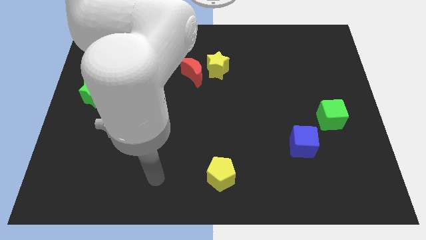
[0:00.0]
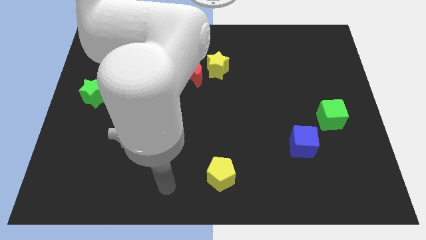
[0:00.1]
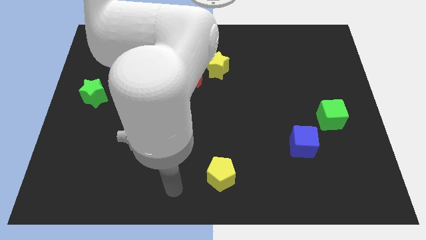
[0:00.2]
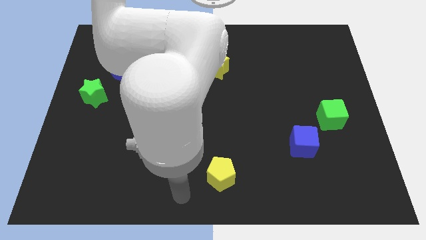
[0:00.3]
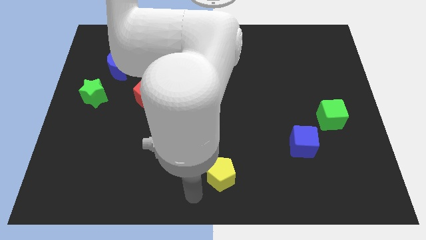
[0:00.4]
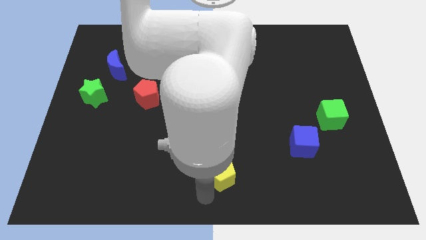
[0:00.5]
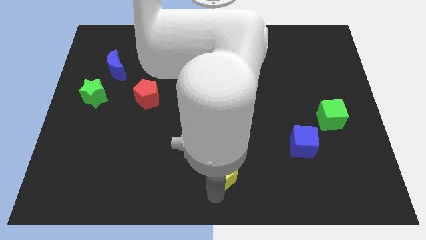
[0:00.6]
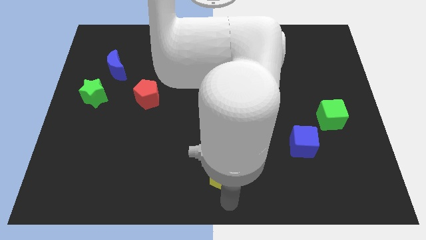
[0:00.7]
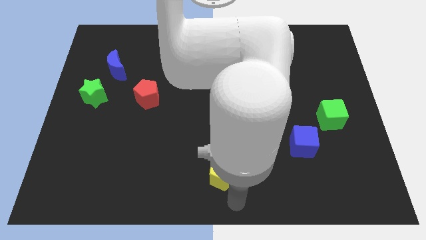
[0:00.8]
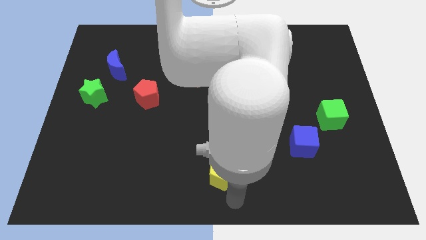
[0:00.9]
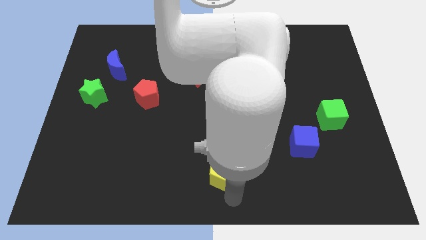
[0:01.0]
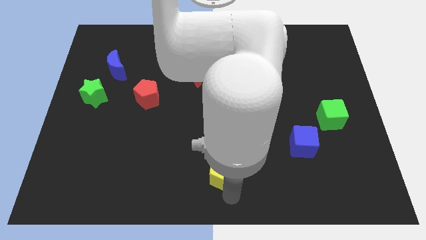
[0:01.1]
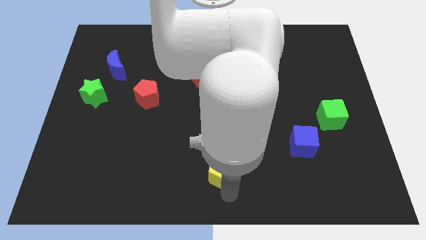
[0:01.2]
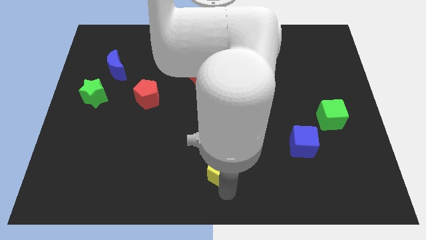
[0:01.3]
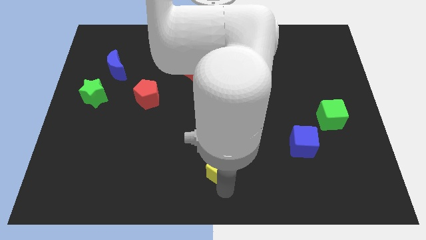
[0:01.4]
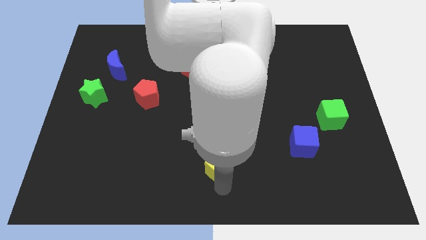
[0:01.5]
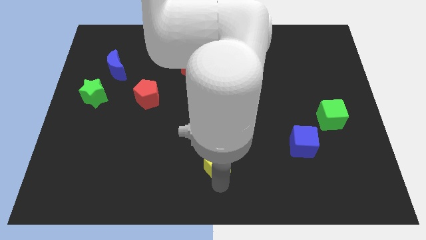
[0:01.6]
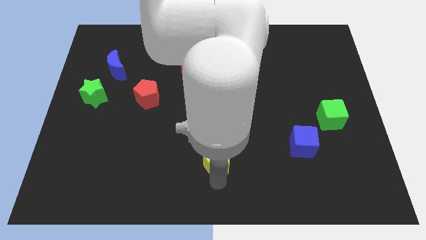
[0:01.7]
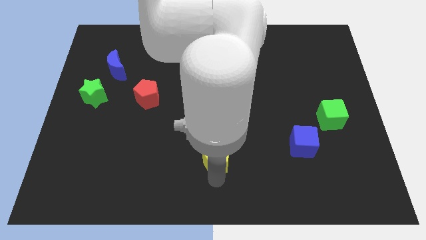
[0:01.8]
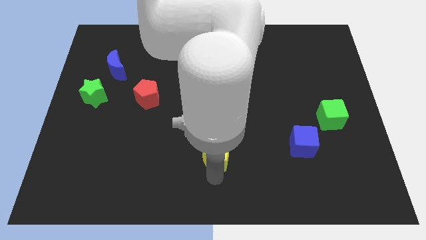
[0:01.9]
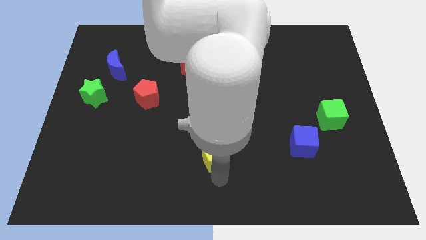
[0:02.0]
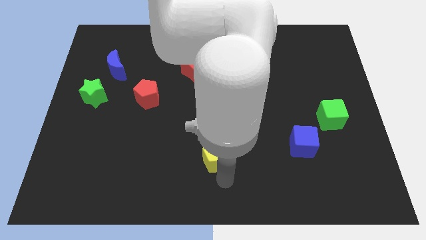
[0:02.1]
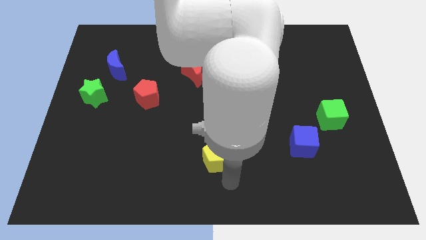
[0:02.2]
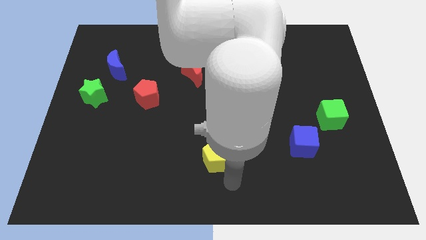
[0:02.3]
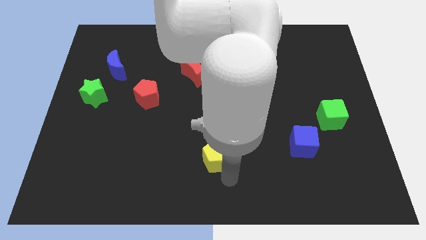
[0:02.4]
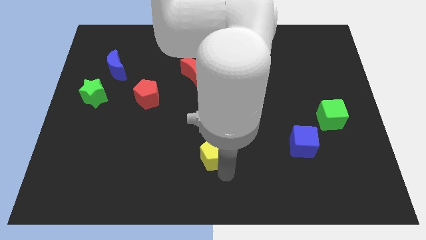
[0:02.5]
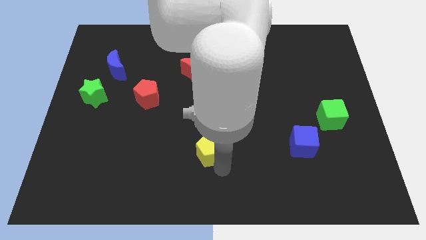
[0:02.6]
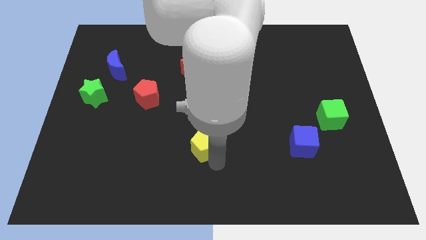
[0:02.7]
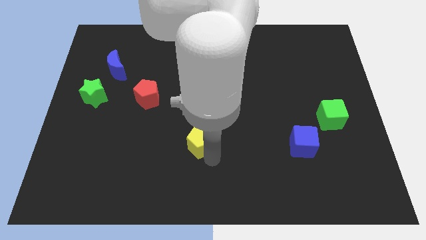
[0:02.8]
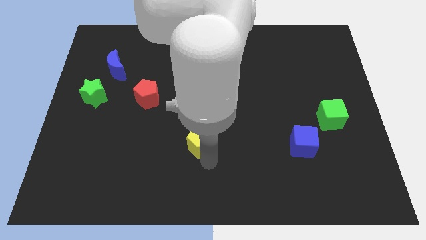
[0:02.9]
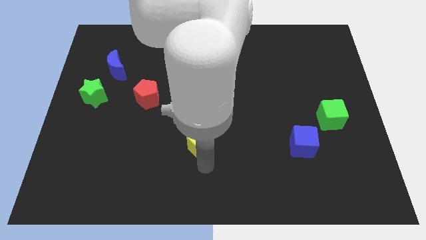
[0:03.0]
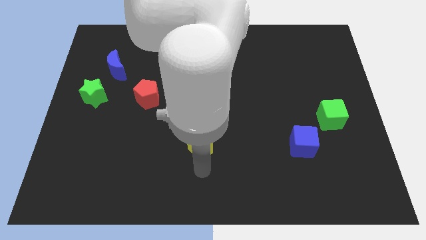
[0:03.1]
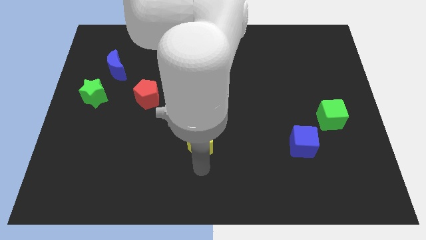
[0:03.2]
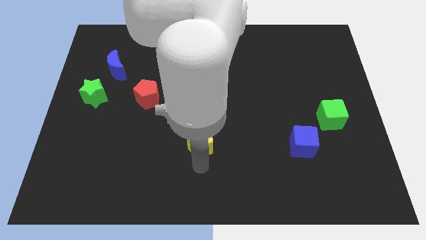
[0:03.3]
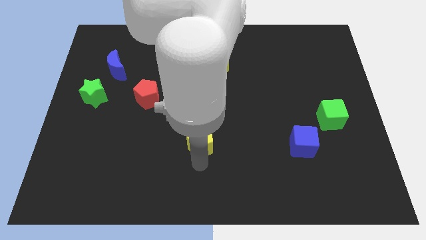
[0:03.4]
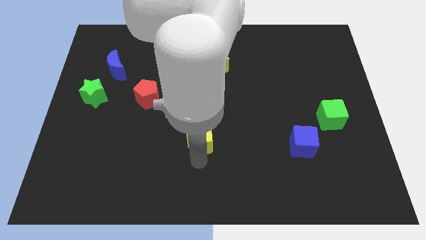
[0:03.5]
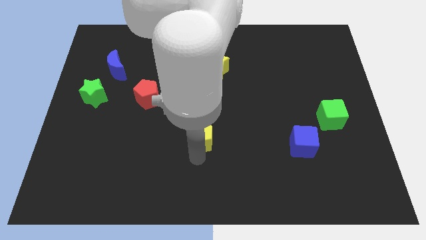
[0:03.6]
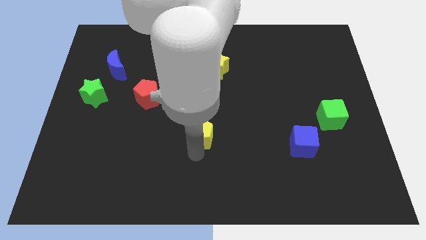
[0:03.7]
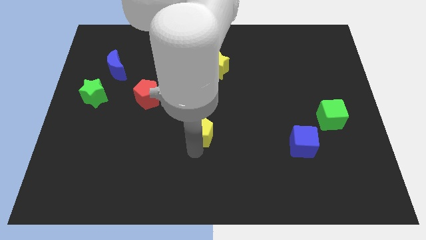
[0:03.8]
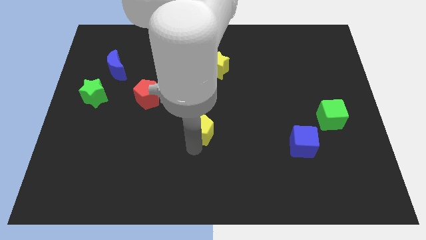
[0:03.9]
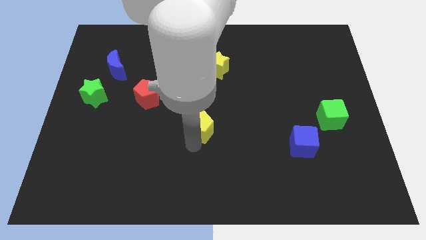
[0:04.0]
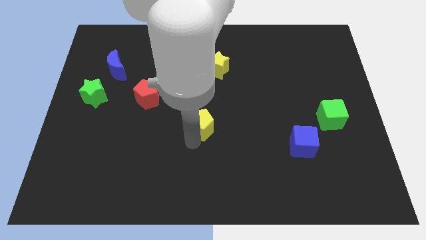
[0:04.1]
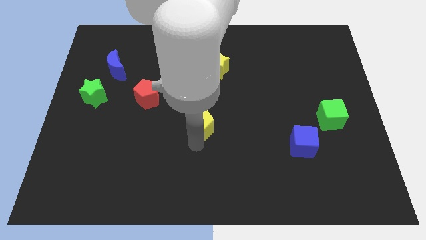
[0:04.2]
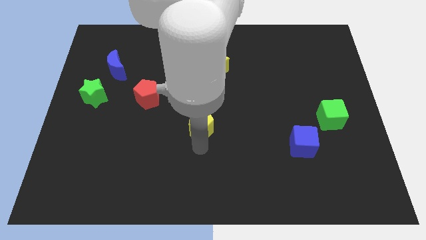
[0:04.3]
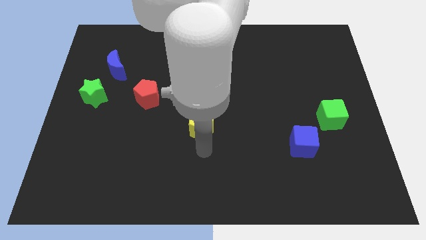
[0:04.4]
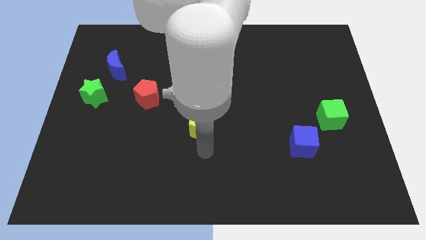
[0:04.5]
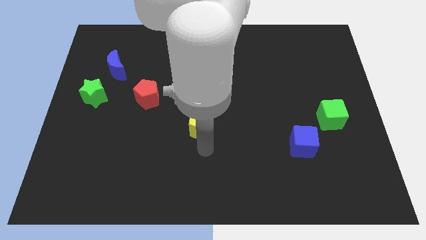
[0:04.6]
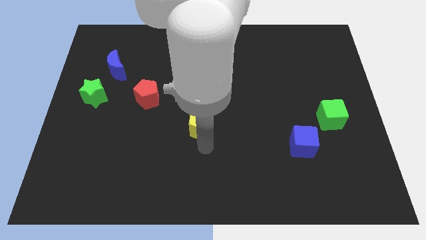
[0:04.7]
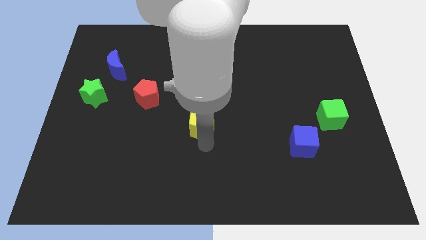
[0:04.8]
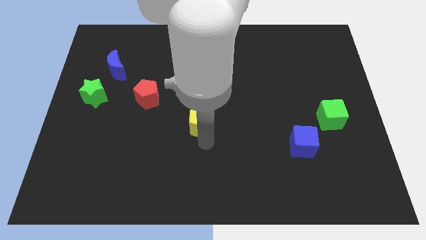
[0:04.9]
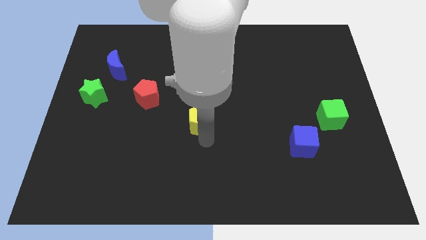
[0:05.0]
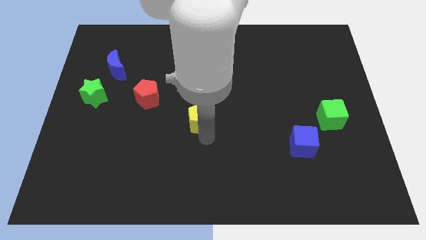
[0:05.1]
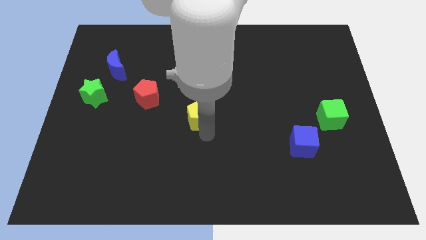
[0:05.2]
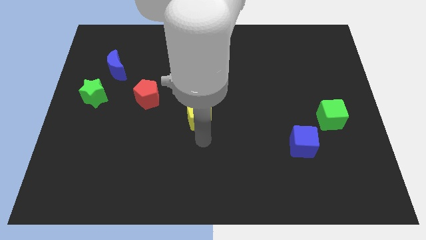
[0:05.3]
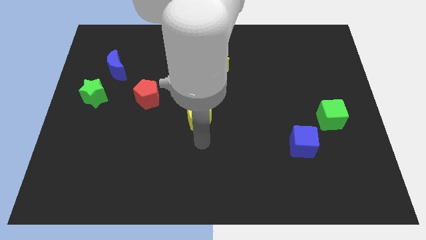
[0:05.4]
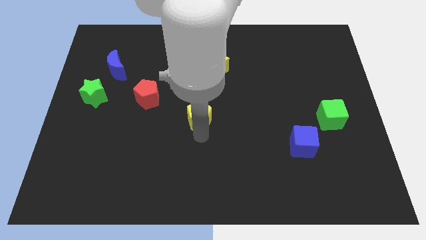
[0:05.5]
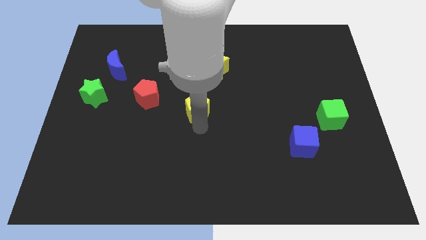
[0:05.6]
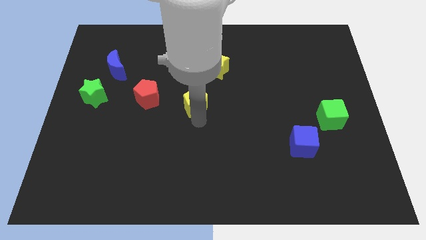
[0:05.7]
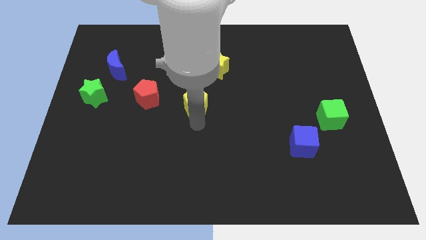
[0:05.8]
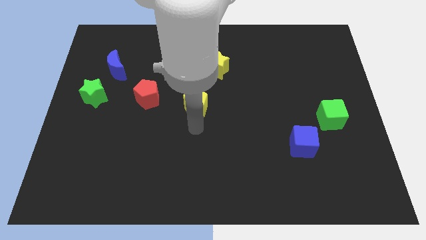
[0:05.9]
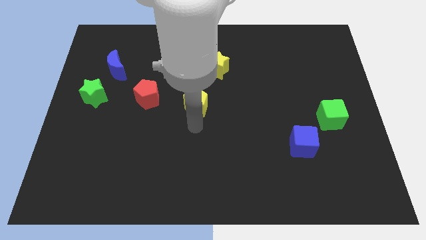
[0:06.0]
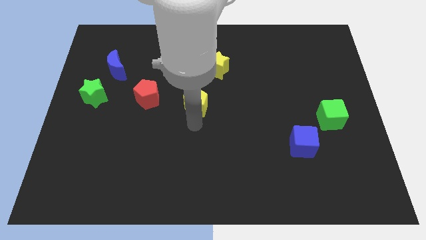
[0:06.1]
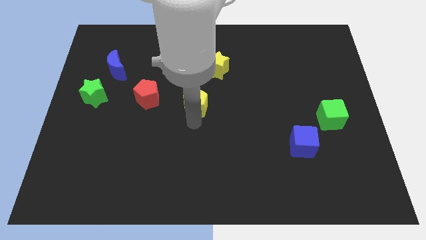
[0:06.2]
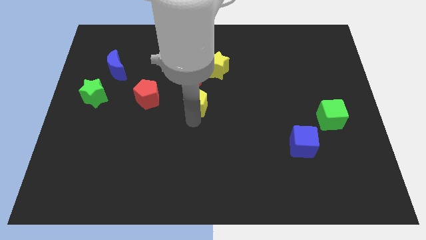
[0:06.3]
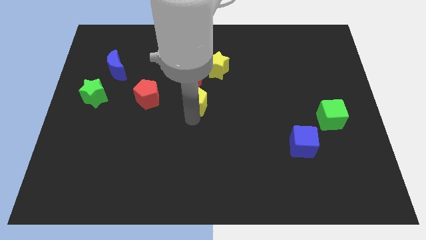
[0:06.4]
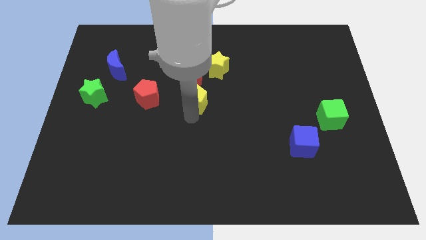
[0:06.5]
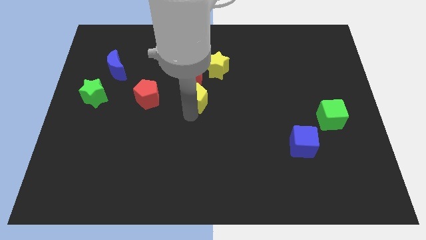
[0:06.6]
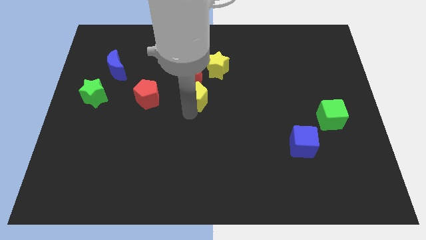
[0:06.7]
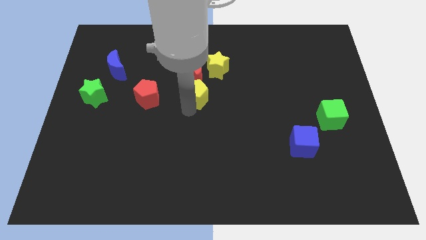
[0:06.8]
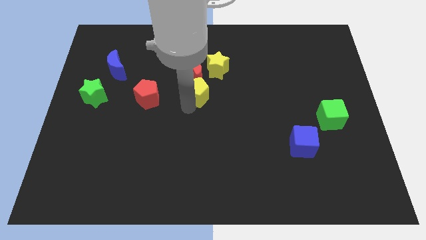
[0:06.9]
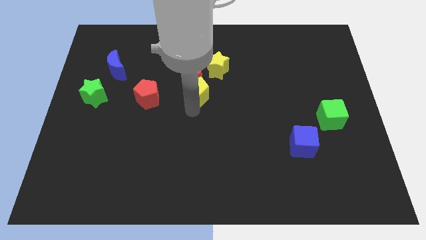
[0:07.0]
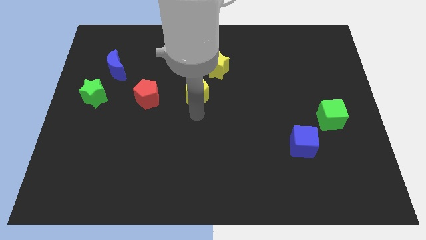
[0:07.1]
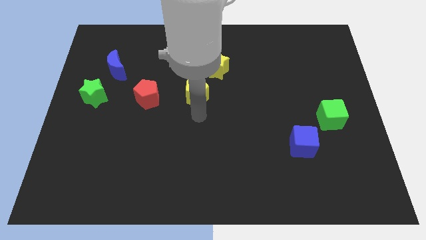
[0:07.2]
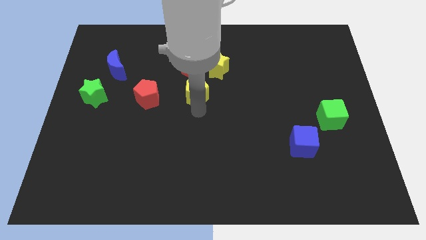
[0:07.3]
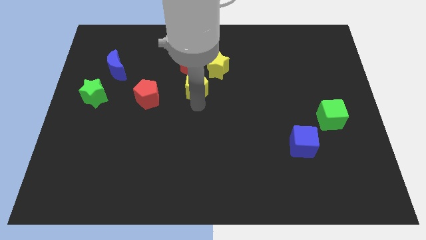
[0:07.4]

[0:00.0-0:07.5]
put the yellow pentagon to the red moon
